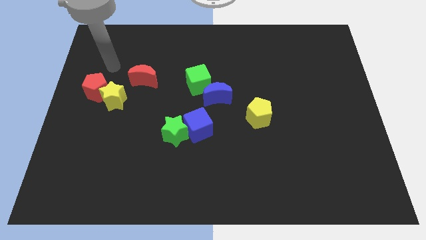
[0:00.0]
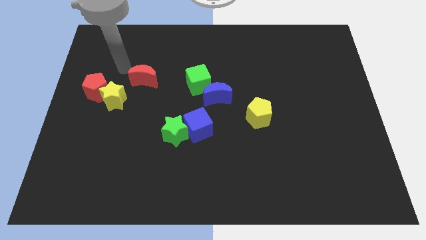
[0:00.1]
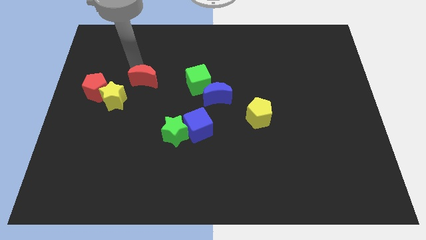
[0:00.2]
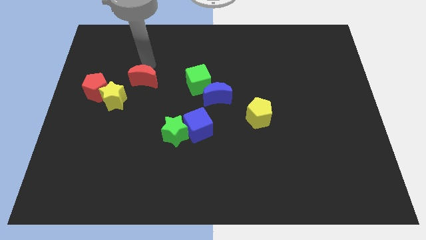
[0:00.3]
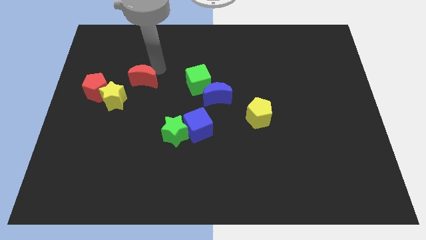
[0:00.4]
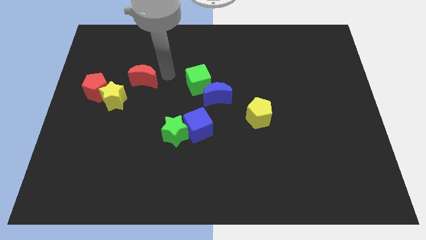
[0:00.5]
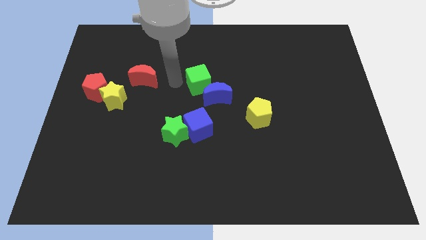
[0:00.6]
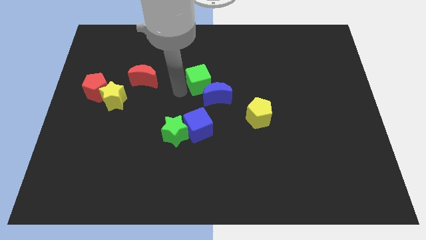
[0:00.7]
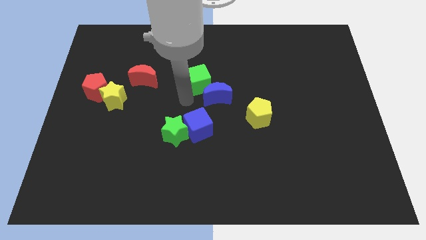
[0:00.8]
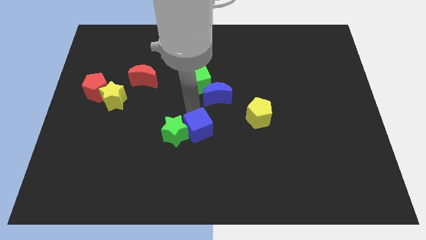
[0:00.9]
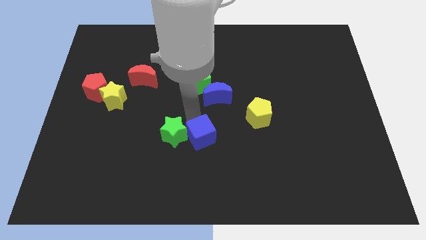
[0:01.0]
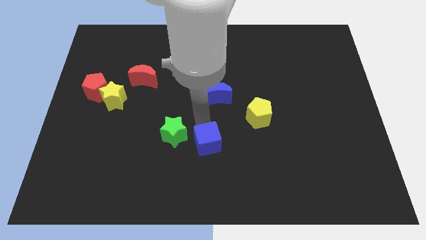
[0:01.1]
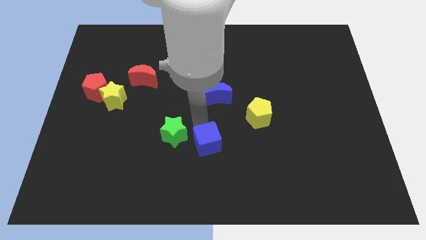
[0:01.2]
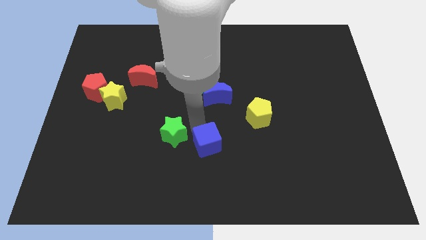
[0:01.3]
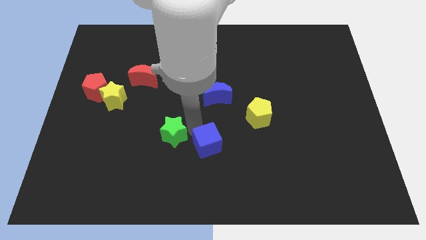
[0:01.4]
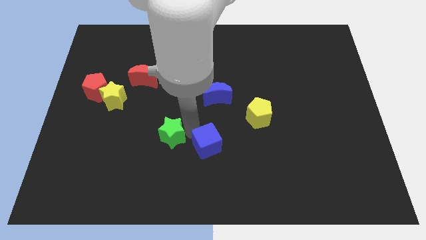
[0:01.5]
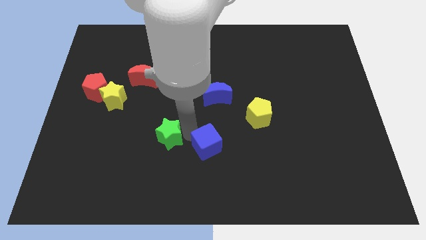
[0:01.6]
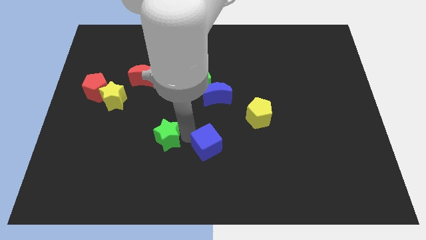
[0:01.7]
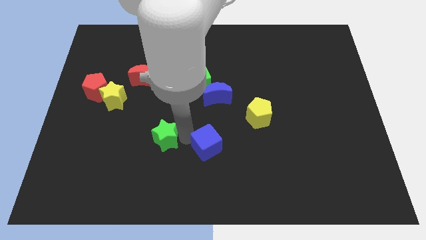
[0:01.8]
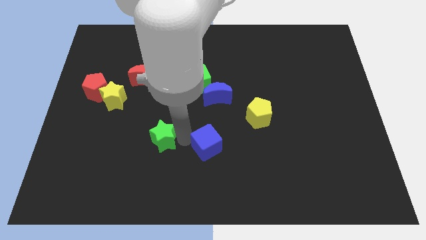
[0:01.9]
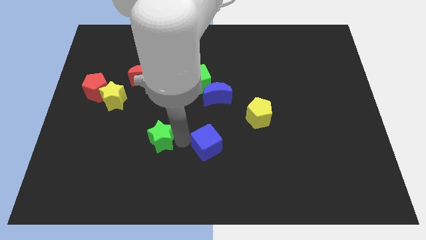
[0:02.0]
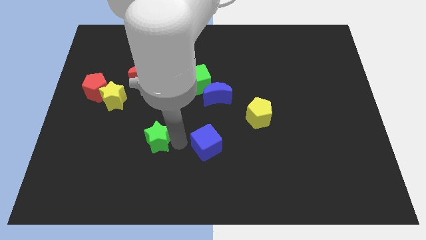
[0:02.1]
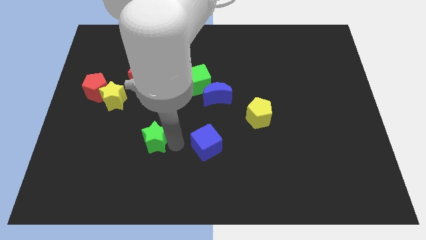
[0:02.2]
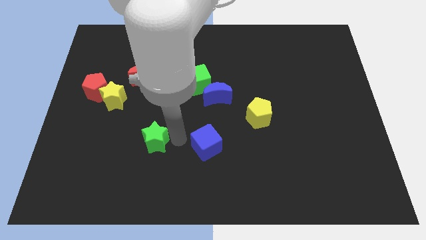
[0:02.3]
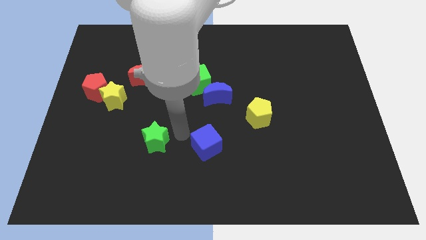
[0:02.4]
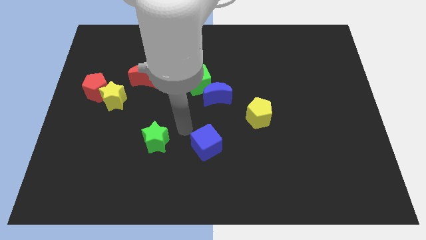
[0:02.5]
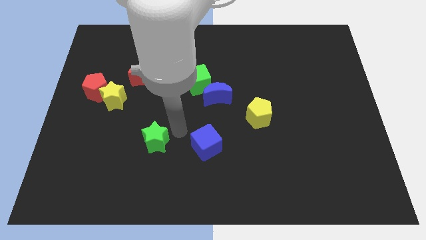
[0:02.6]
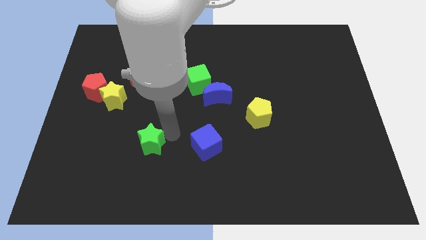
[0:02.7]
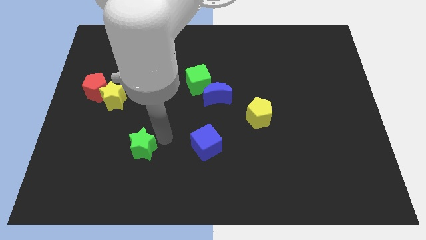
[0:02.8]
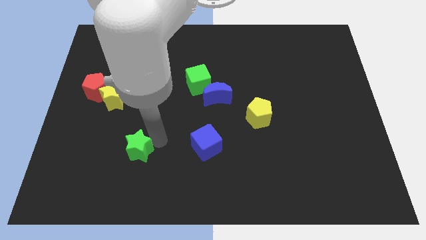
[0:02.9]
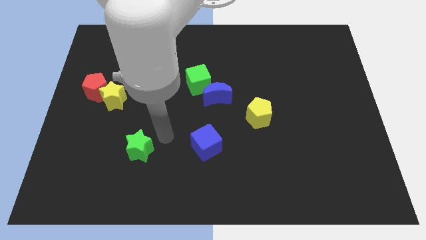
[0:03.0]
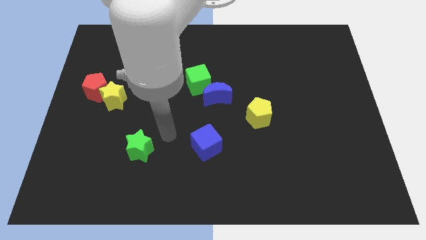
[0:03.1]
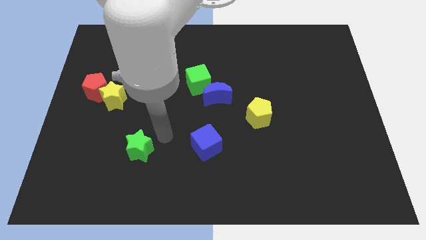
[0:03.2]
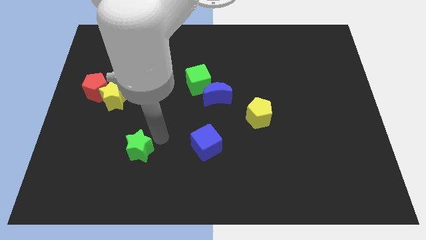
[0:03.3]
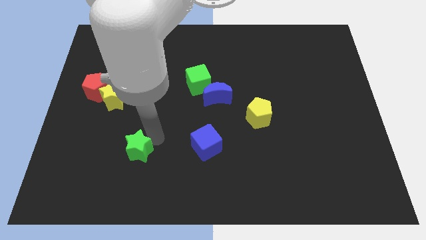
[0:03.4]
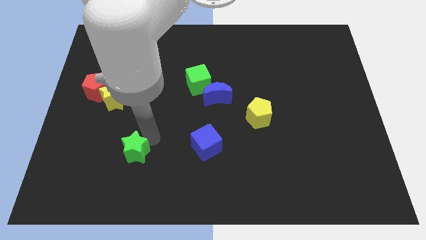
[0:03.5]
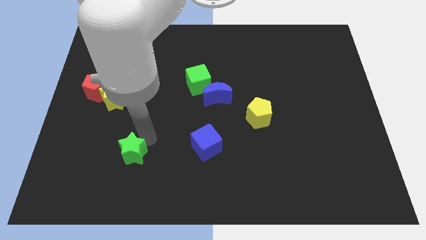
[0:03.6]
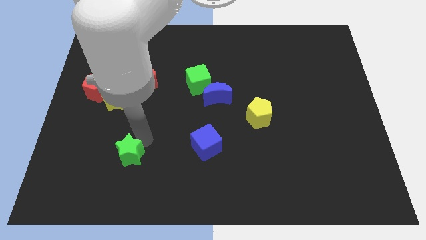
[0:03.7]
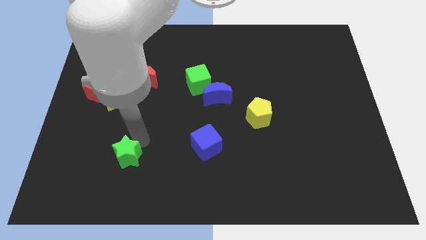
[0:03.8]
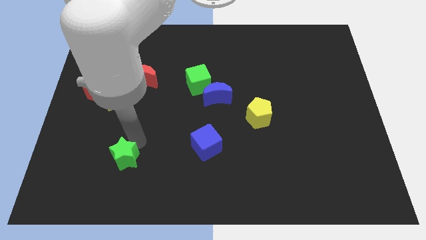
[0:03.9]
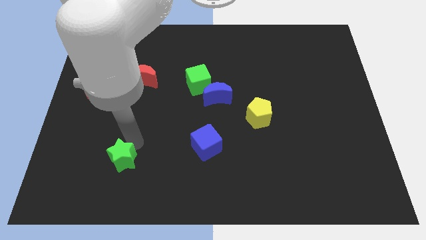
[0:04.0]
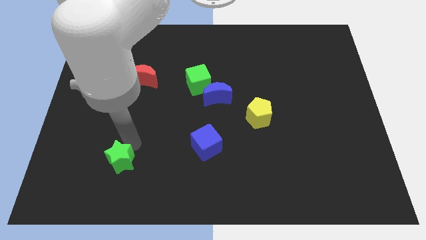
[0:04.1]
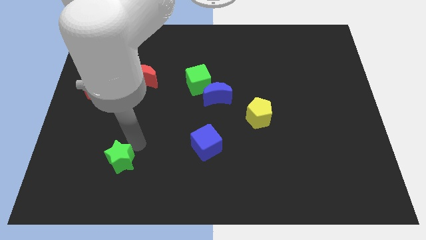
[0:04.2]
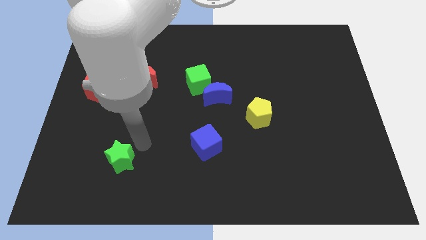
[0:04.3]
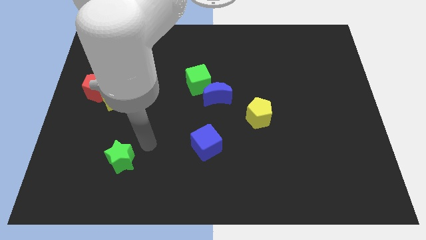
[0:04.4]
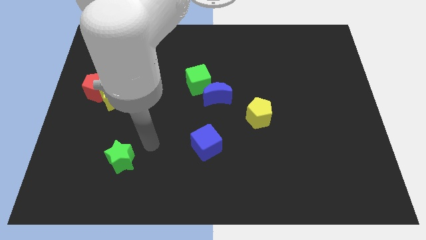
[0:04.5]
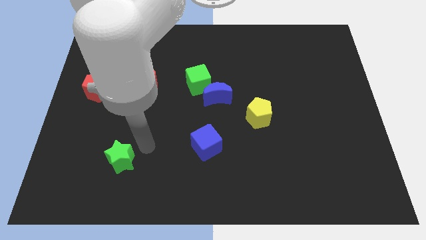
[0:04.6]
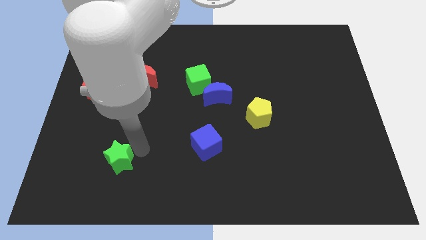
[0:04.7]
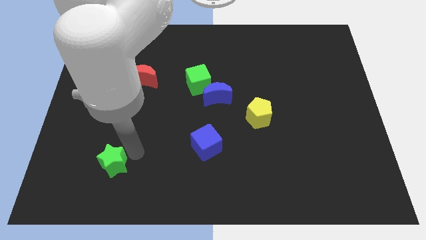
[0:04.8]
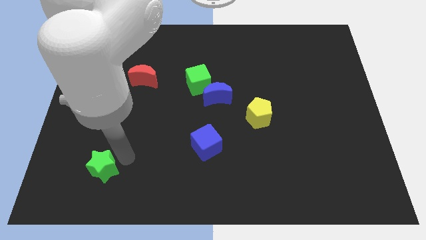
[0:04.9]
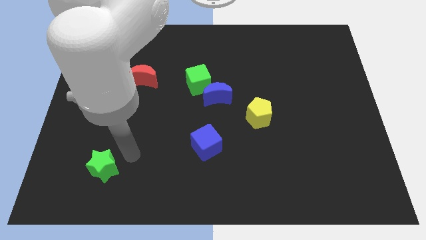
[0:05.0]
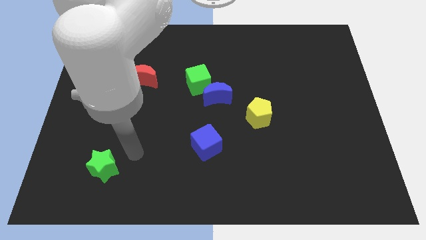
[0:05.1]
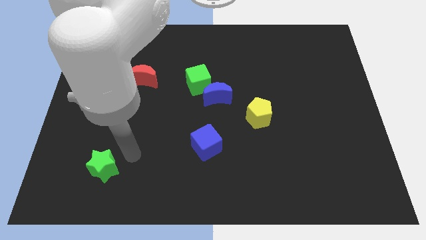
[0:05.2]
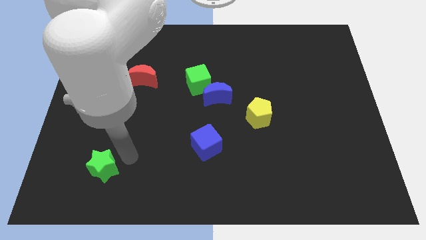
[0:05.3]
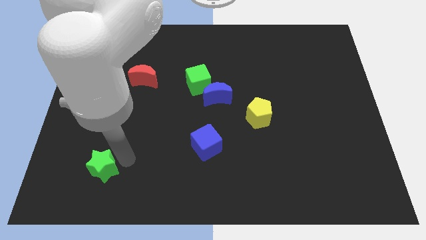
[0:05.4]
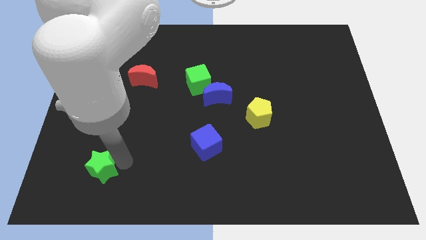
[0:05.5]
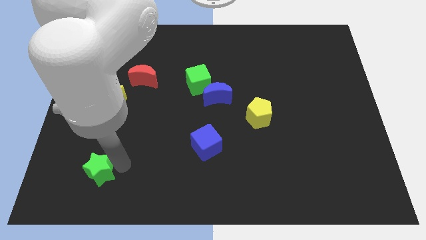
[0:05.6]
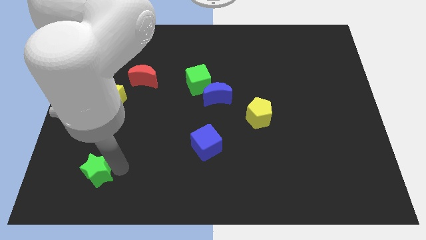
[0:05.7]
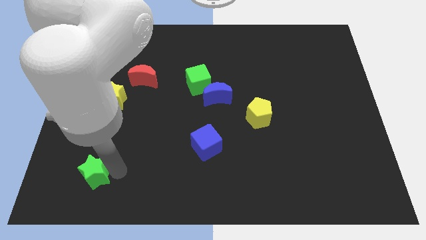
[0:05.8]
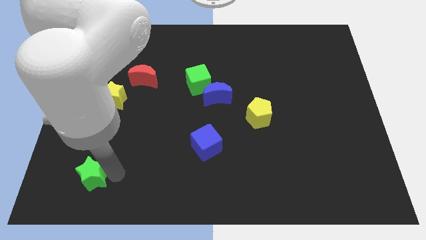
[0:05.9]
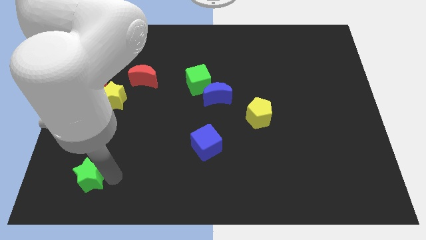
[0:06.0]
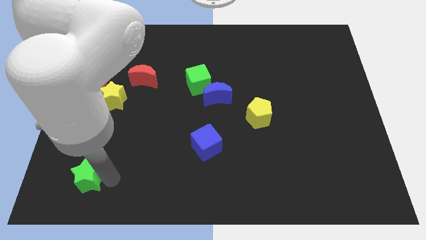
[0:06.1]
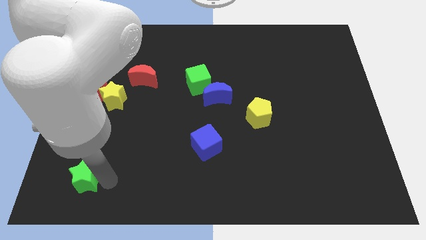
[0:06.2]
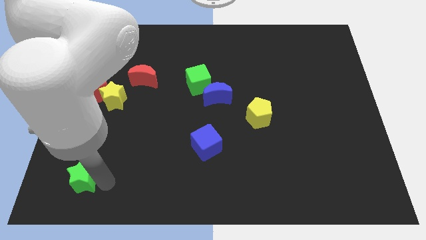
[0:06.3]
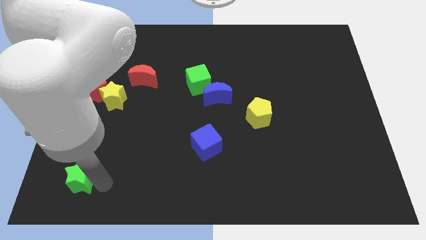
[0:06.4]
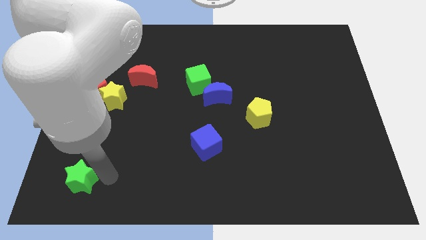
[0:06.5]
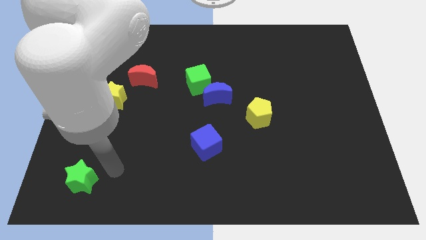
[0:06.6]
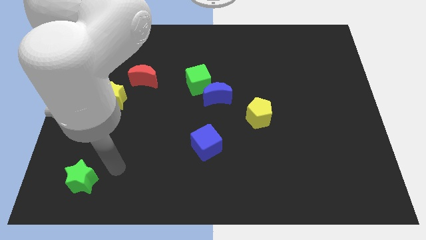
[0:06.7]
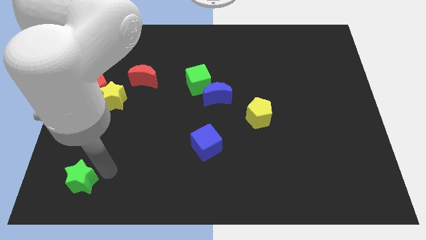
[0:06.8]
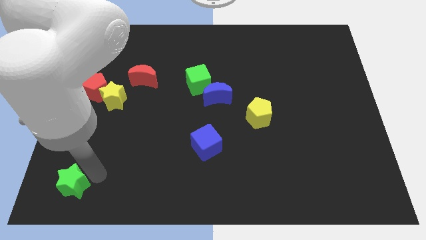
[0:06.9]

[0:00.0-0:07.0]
put the green star to the bottom left
